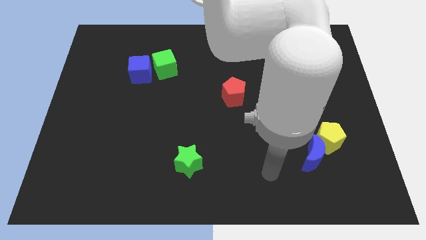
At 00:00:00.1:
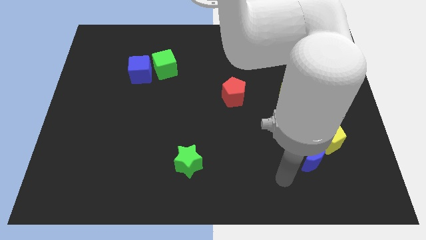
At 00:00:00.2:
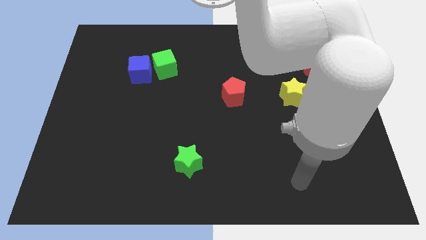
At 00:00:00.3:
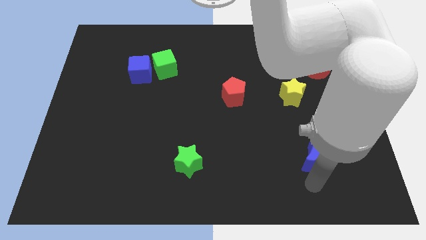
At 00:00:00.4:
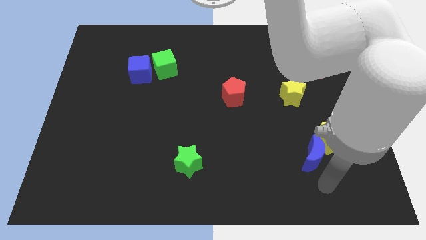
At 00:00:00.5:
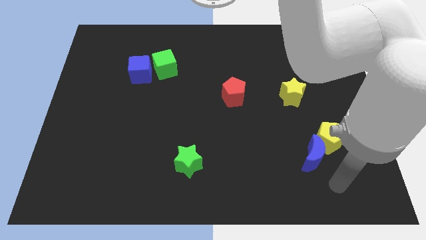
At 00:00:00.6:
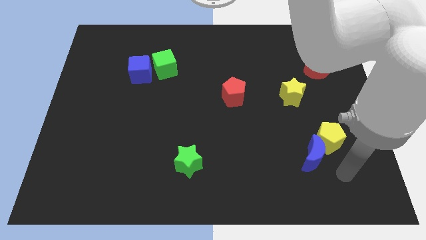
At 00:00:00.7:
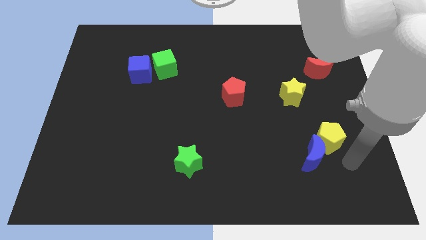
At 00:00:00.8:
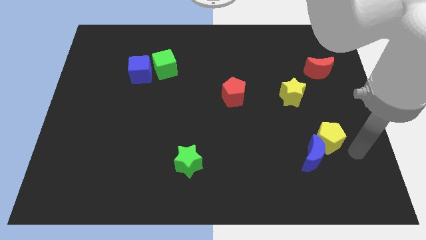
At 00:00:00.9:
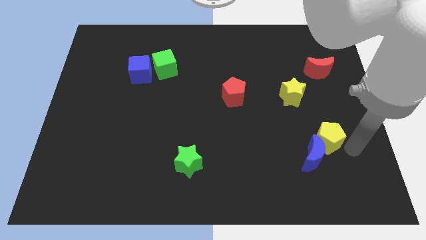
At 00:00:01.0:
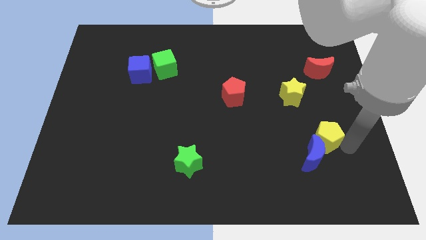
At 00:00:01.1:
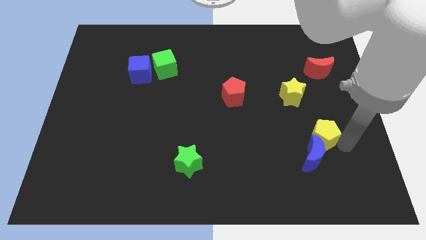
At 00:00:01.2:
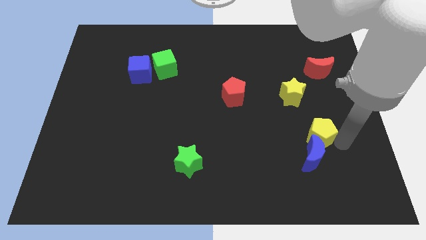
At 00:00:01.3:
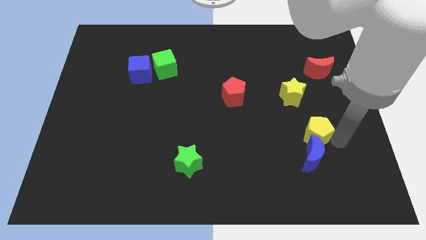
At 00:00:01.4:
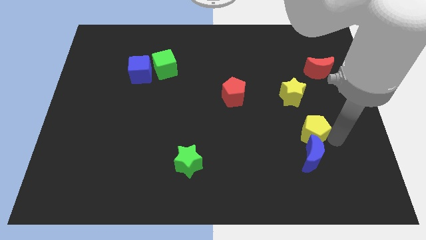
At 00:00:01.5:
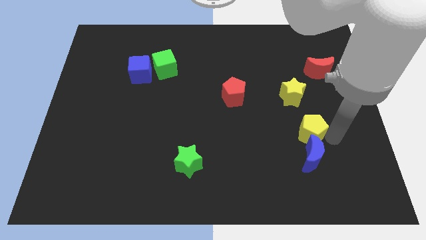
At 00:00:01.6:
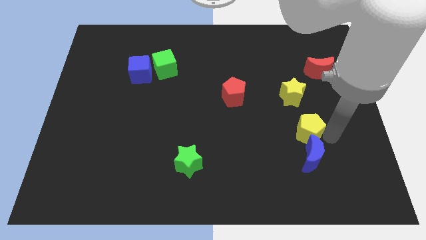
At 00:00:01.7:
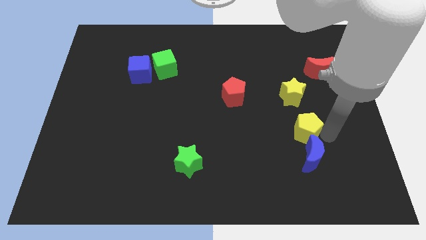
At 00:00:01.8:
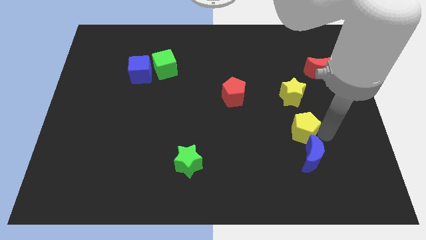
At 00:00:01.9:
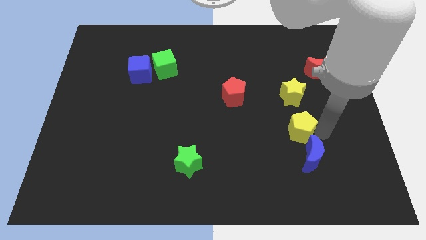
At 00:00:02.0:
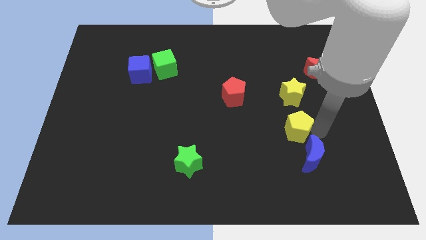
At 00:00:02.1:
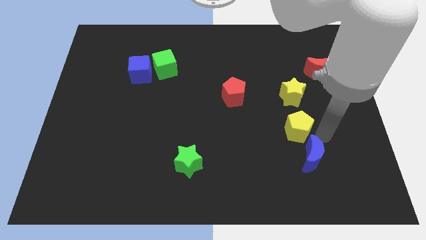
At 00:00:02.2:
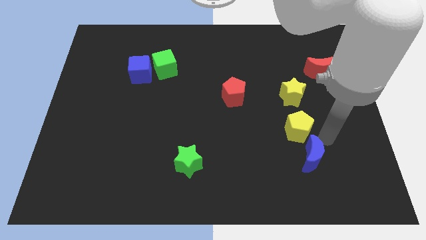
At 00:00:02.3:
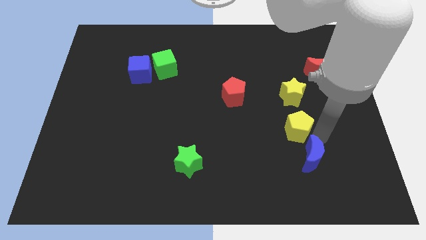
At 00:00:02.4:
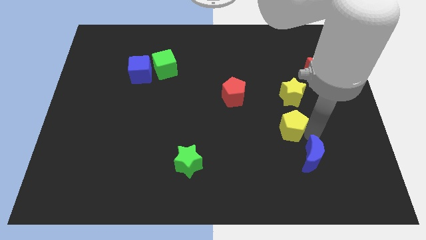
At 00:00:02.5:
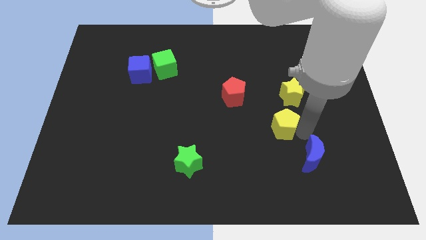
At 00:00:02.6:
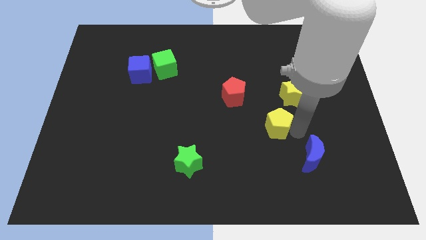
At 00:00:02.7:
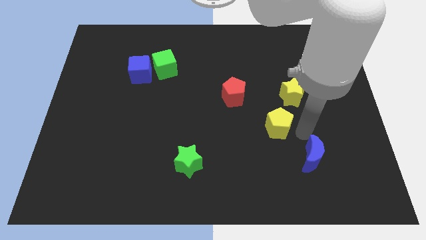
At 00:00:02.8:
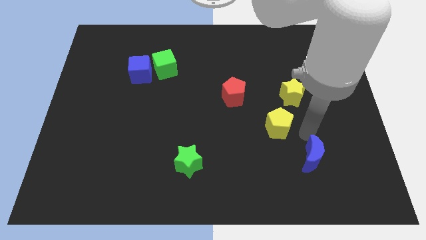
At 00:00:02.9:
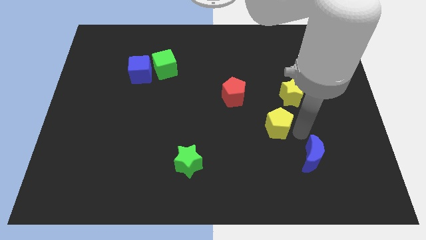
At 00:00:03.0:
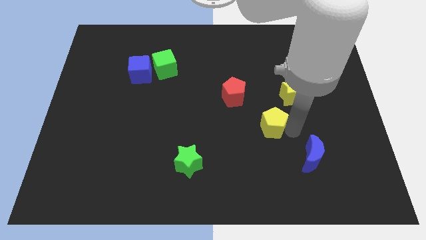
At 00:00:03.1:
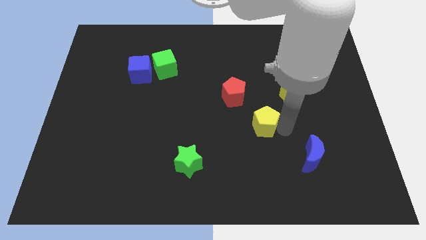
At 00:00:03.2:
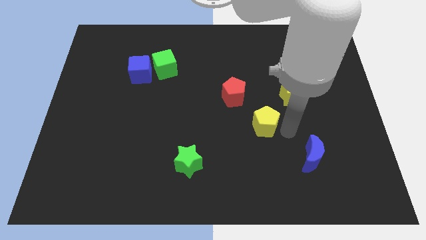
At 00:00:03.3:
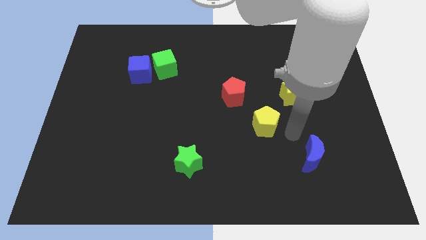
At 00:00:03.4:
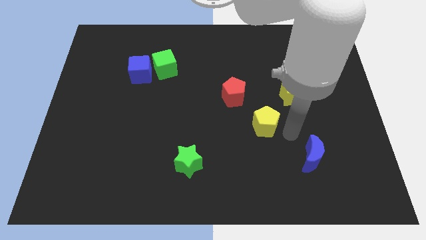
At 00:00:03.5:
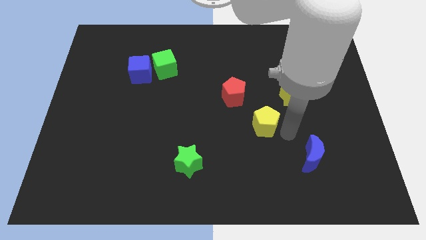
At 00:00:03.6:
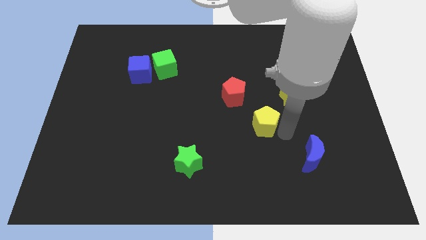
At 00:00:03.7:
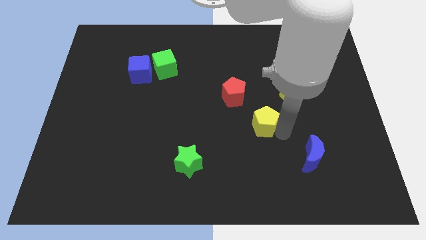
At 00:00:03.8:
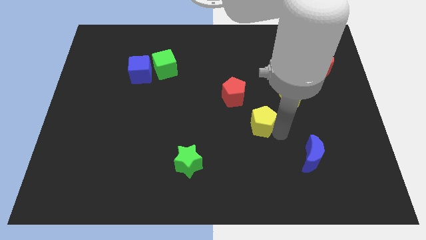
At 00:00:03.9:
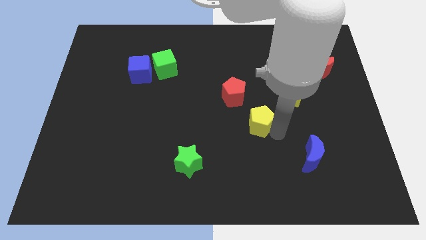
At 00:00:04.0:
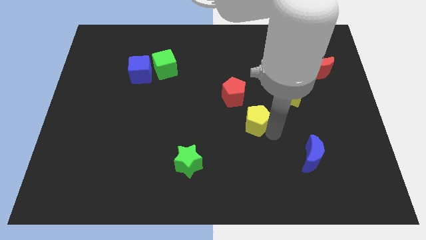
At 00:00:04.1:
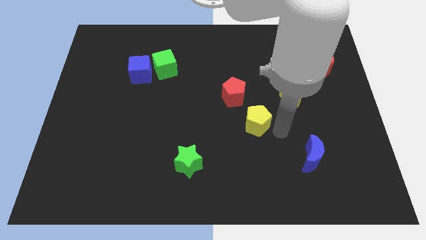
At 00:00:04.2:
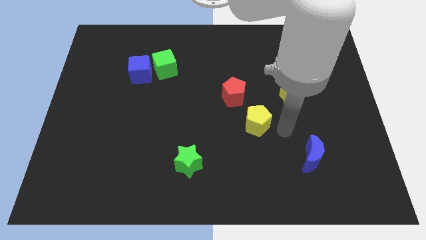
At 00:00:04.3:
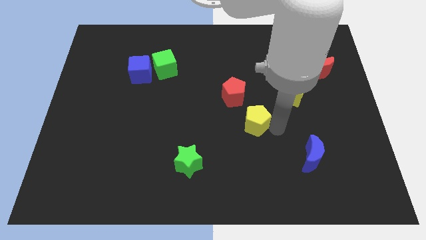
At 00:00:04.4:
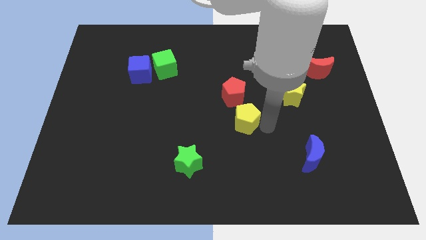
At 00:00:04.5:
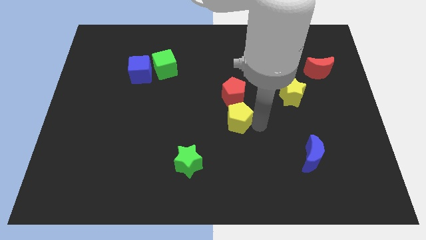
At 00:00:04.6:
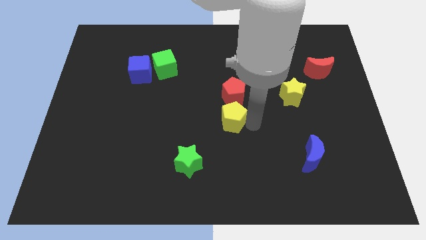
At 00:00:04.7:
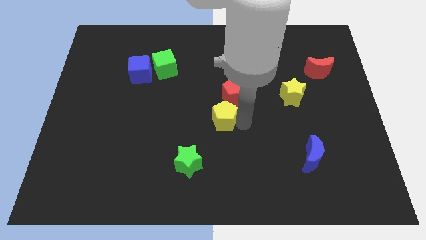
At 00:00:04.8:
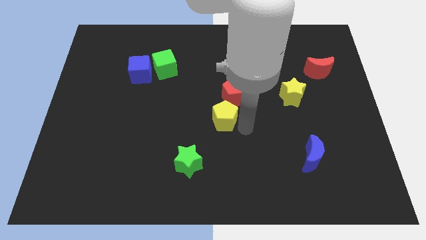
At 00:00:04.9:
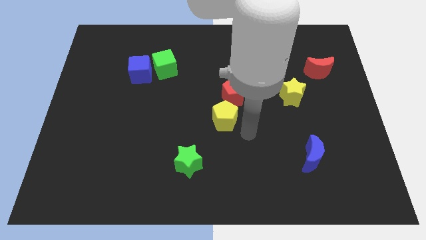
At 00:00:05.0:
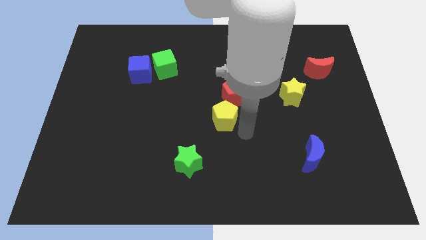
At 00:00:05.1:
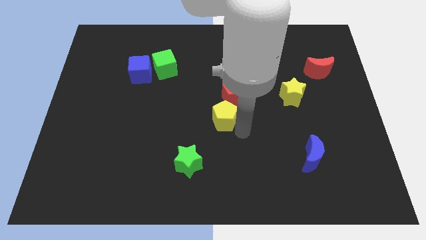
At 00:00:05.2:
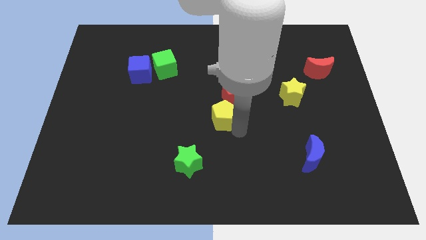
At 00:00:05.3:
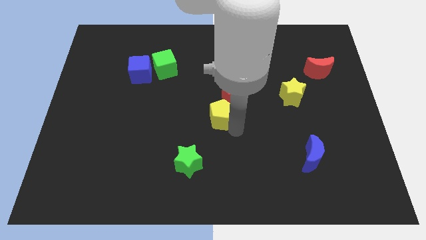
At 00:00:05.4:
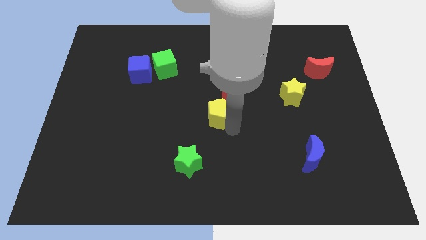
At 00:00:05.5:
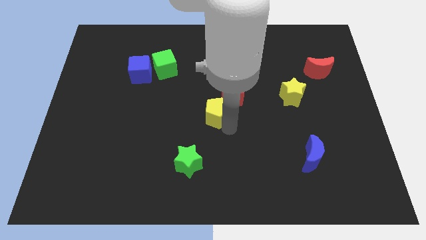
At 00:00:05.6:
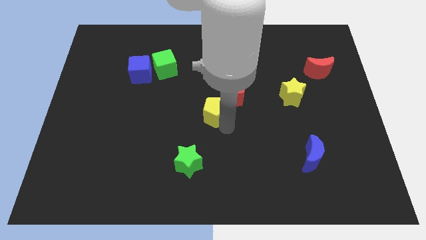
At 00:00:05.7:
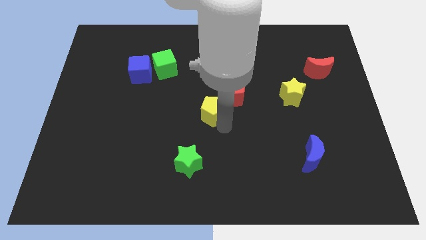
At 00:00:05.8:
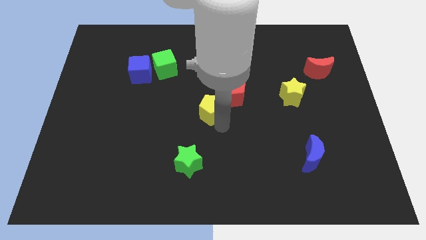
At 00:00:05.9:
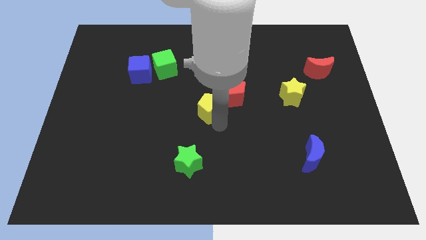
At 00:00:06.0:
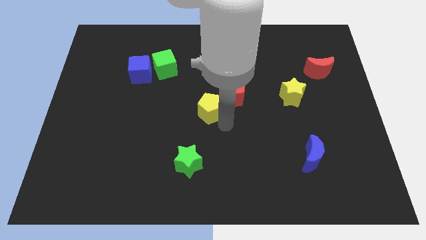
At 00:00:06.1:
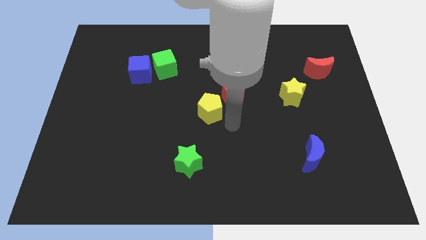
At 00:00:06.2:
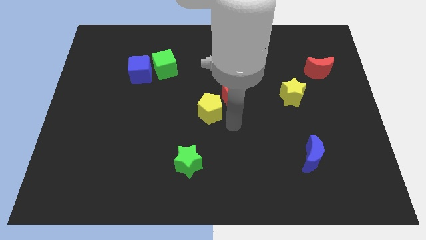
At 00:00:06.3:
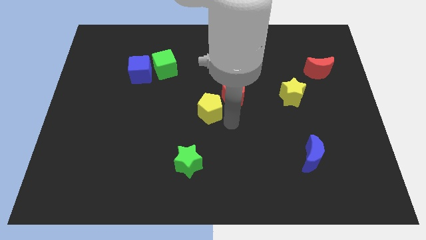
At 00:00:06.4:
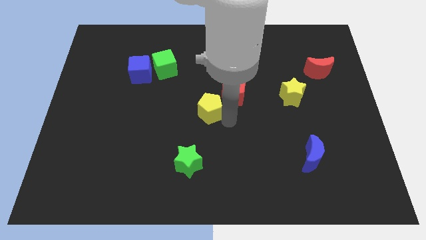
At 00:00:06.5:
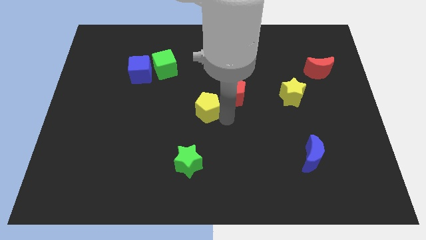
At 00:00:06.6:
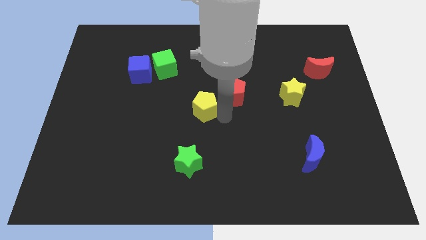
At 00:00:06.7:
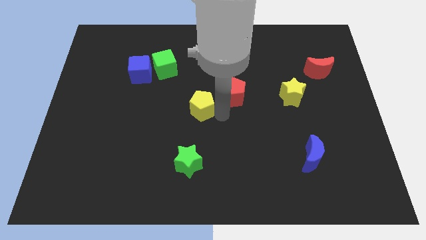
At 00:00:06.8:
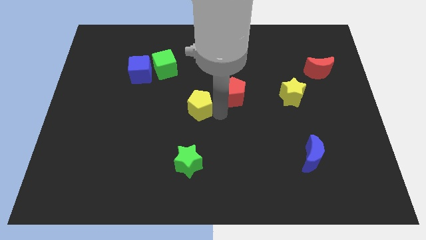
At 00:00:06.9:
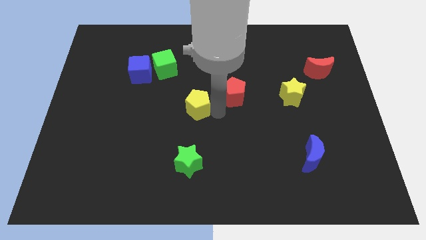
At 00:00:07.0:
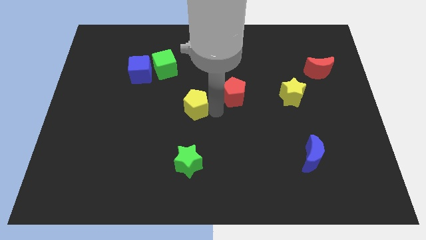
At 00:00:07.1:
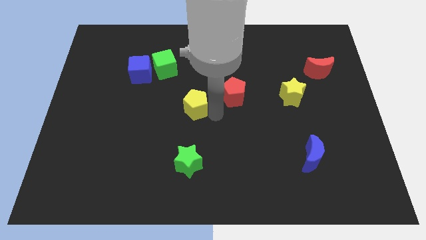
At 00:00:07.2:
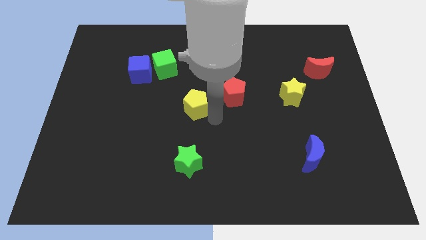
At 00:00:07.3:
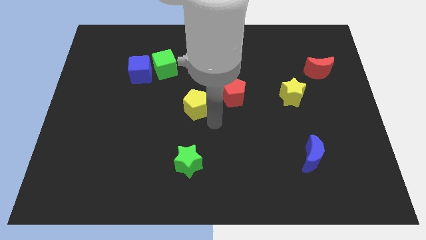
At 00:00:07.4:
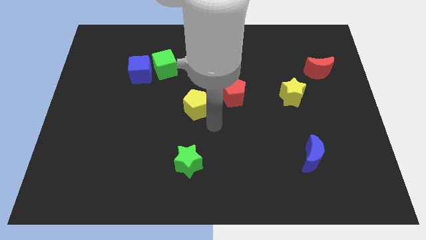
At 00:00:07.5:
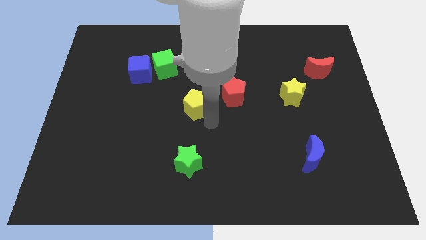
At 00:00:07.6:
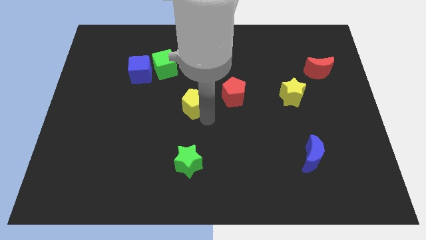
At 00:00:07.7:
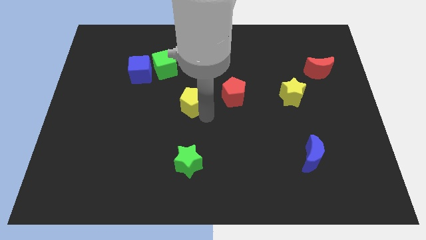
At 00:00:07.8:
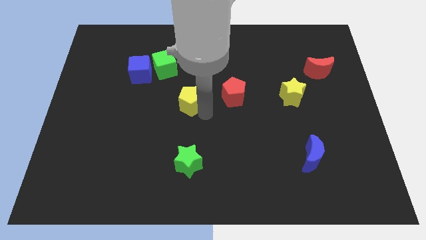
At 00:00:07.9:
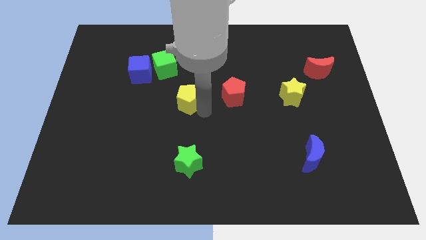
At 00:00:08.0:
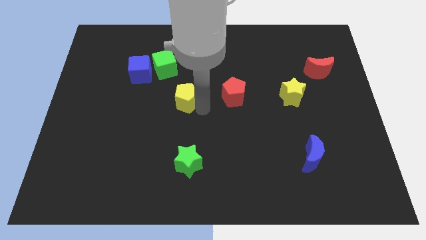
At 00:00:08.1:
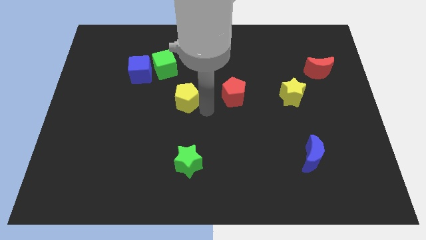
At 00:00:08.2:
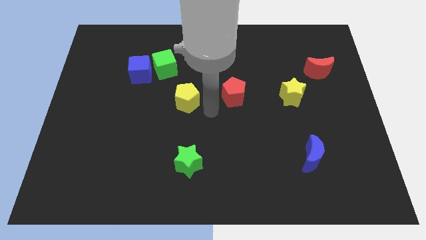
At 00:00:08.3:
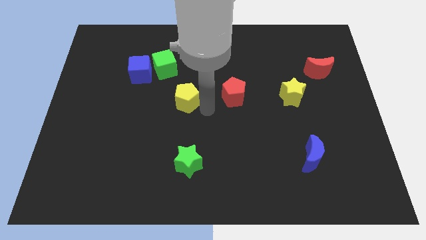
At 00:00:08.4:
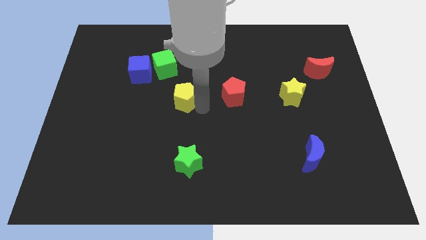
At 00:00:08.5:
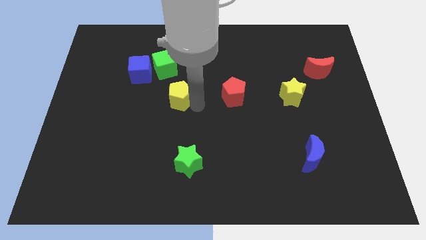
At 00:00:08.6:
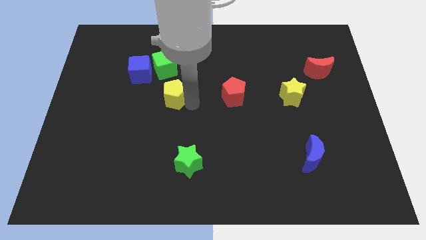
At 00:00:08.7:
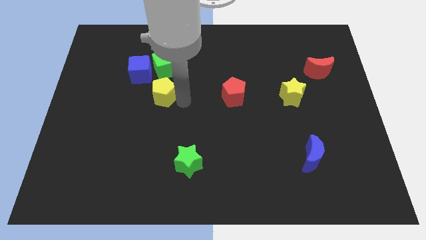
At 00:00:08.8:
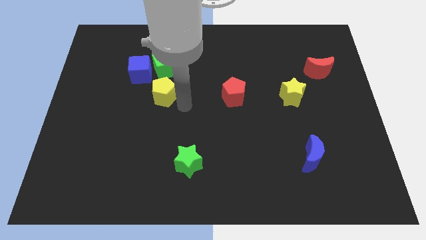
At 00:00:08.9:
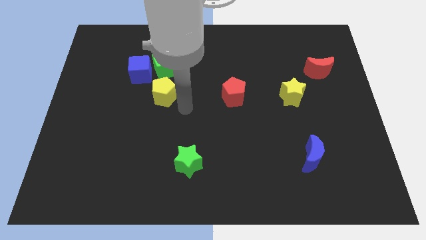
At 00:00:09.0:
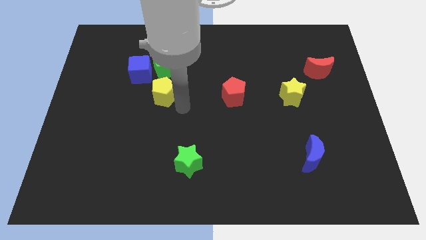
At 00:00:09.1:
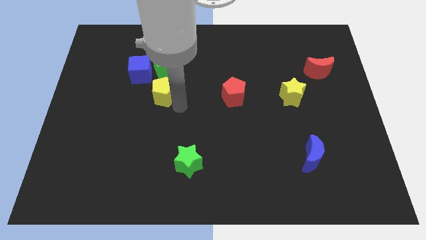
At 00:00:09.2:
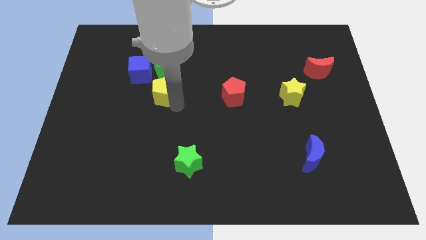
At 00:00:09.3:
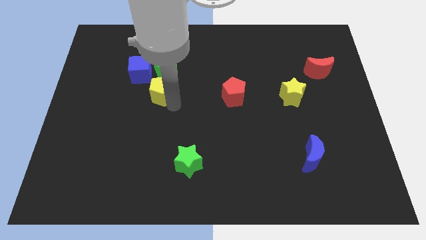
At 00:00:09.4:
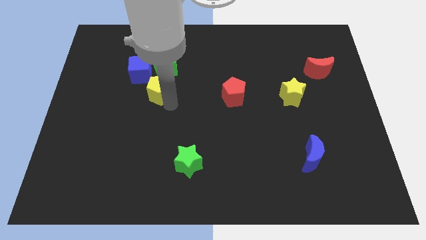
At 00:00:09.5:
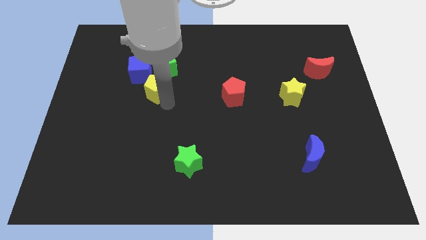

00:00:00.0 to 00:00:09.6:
push the yellow pentagon to the bottom left of the green cube
